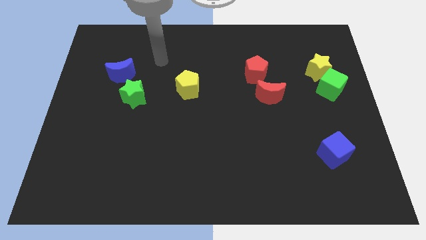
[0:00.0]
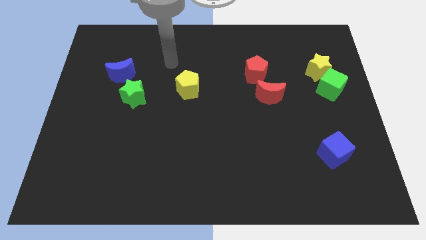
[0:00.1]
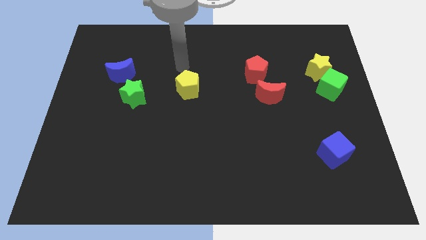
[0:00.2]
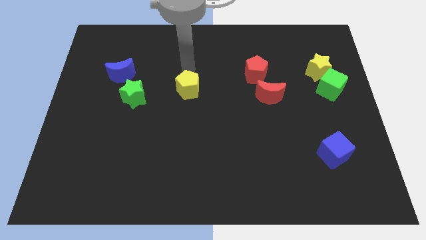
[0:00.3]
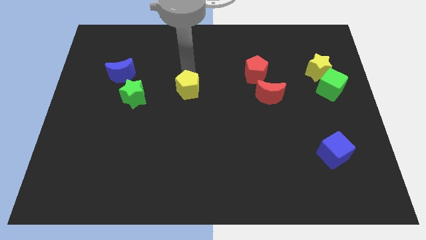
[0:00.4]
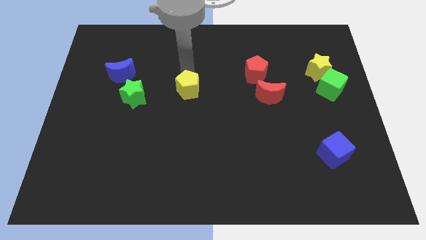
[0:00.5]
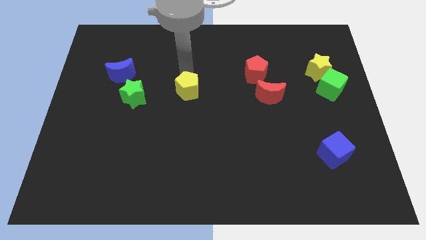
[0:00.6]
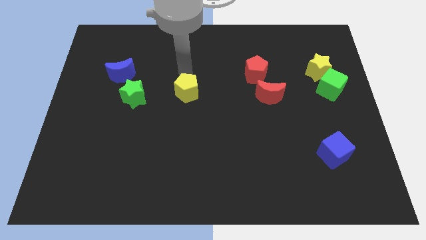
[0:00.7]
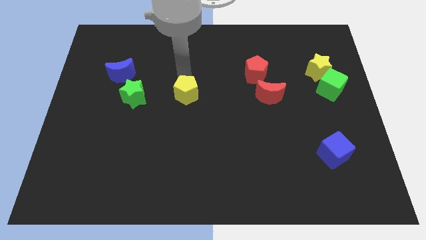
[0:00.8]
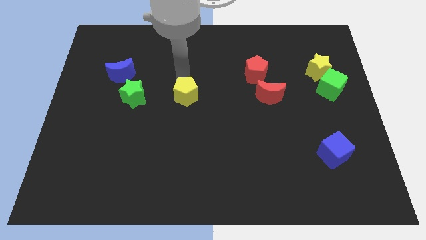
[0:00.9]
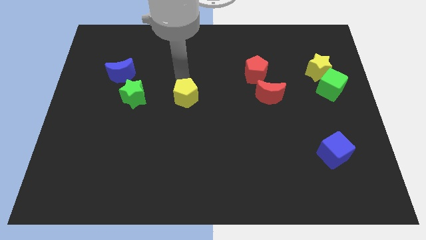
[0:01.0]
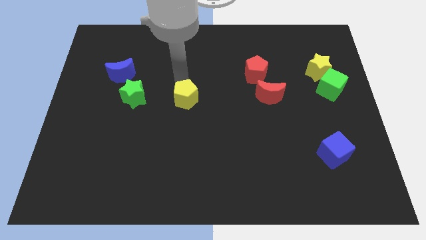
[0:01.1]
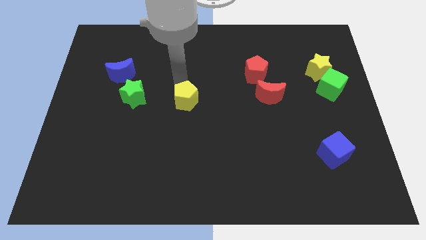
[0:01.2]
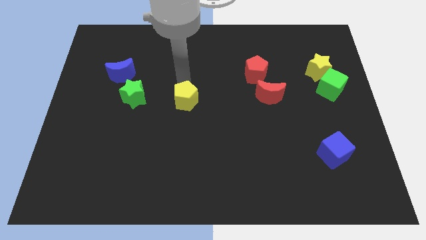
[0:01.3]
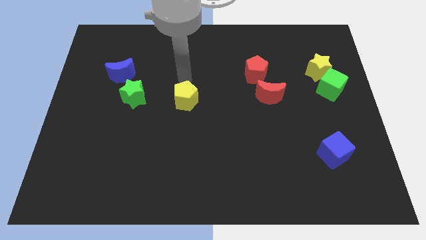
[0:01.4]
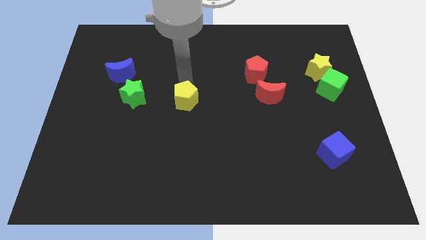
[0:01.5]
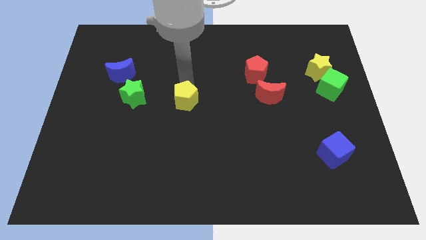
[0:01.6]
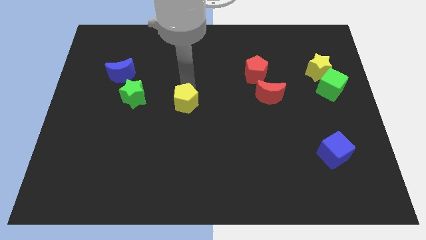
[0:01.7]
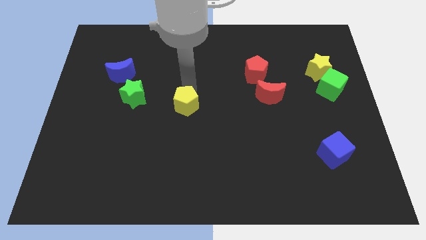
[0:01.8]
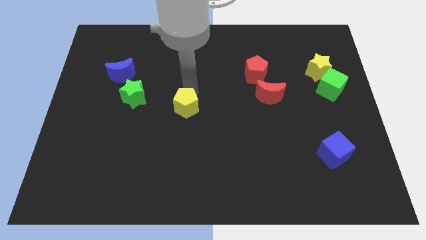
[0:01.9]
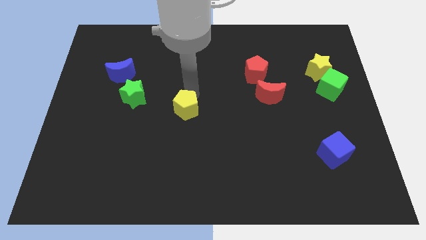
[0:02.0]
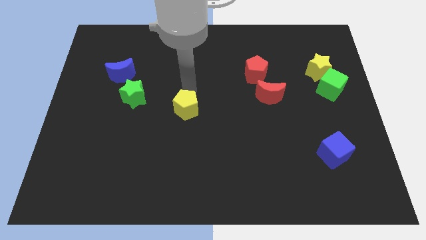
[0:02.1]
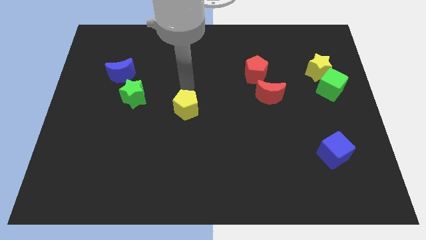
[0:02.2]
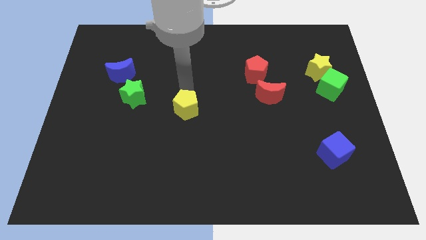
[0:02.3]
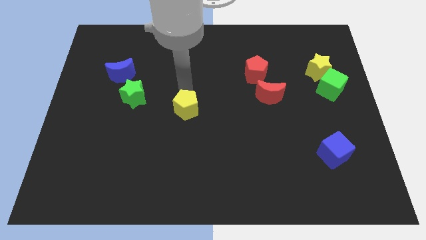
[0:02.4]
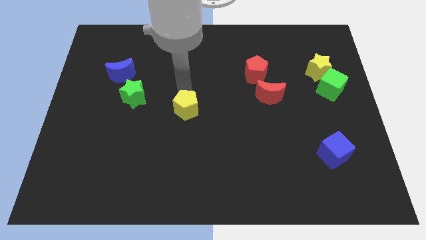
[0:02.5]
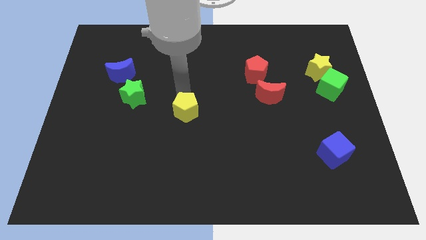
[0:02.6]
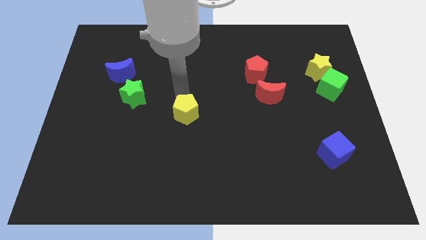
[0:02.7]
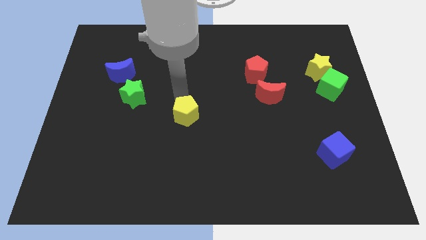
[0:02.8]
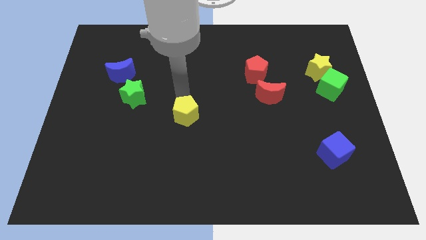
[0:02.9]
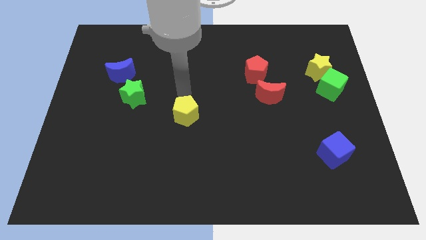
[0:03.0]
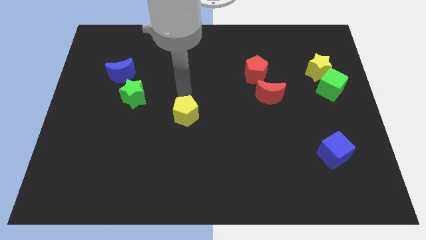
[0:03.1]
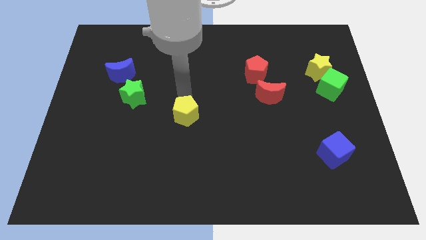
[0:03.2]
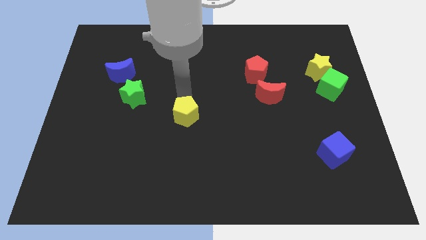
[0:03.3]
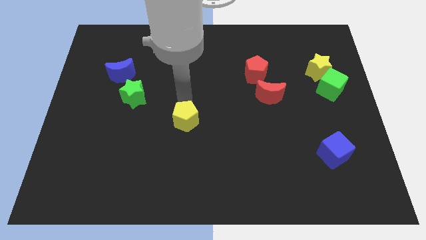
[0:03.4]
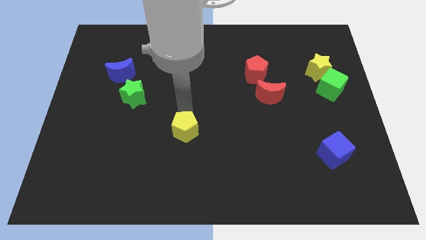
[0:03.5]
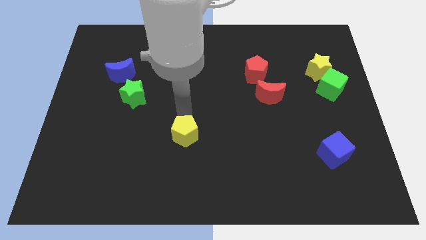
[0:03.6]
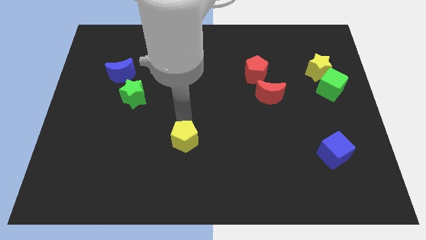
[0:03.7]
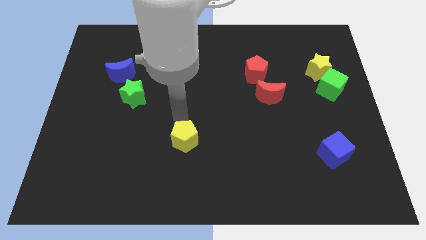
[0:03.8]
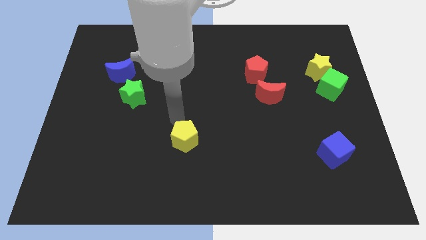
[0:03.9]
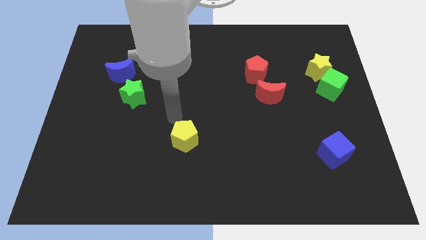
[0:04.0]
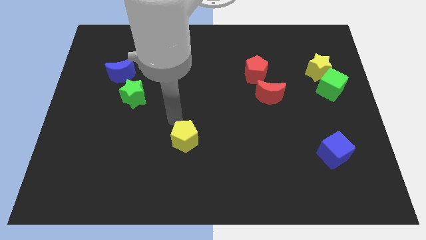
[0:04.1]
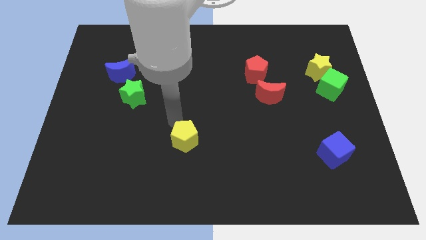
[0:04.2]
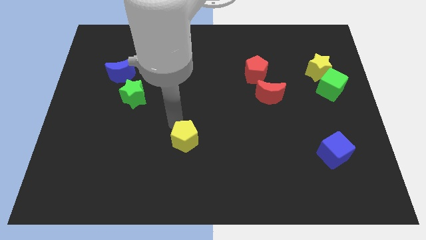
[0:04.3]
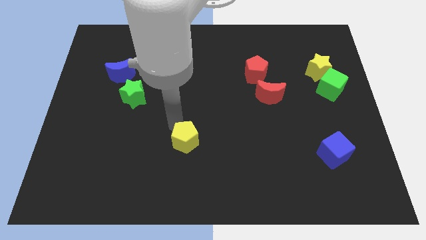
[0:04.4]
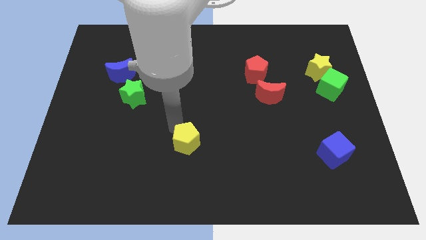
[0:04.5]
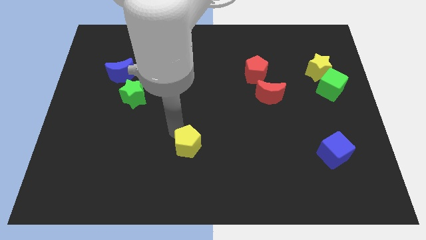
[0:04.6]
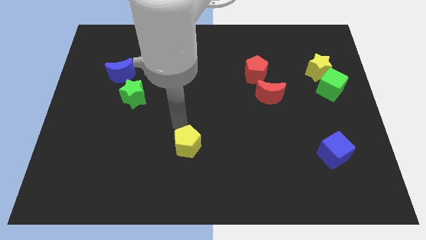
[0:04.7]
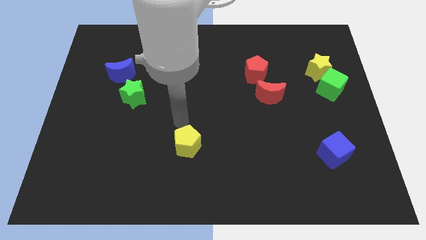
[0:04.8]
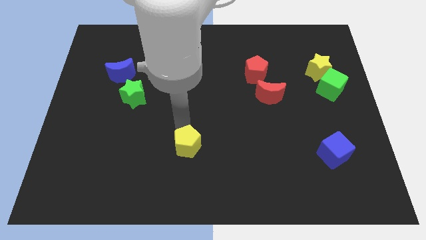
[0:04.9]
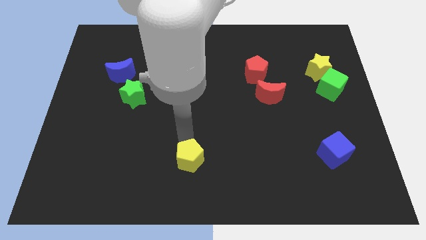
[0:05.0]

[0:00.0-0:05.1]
push the yellow pentagon to the bottom

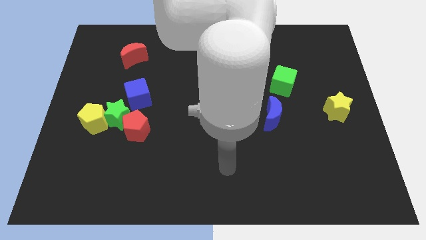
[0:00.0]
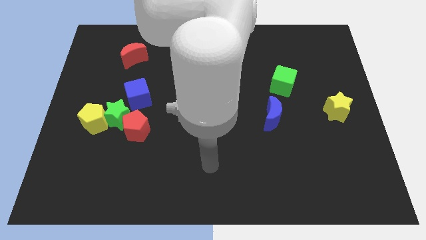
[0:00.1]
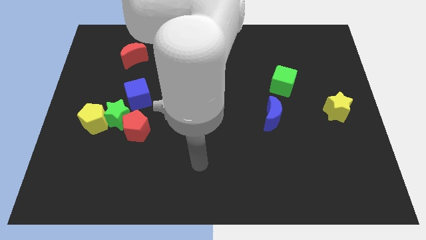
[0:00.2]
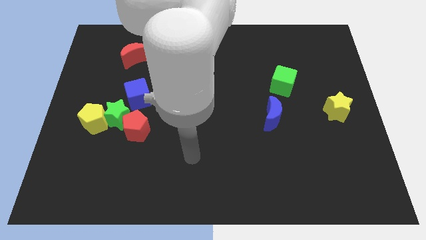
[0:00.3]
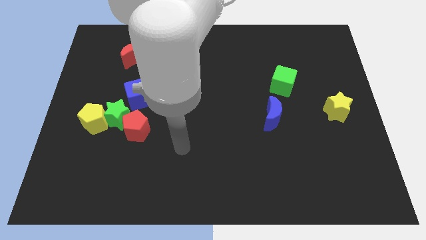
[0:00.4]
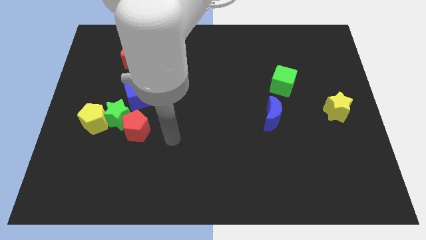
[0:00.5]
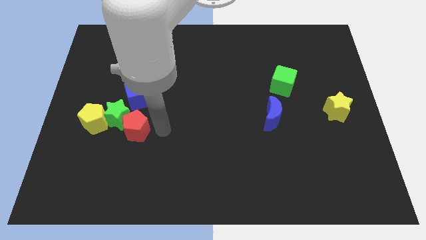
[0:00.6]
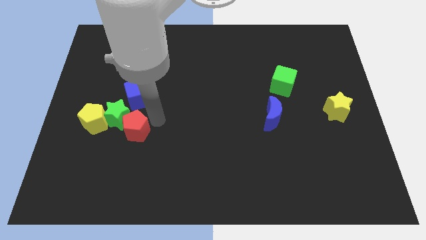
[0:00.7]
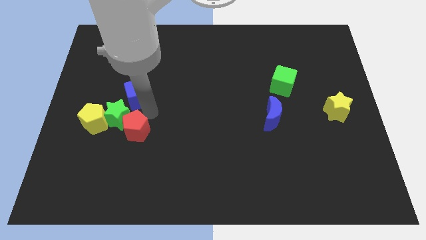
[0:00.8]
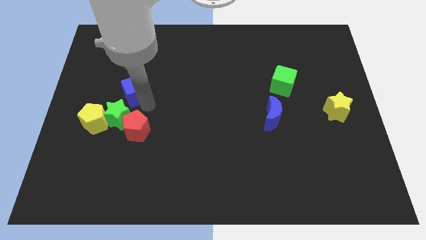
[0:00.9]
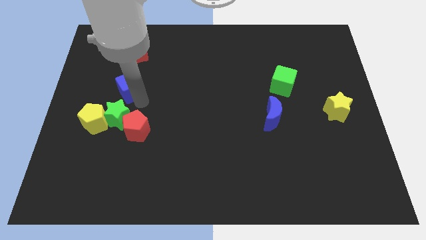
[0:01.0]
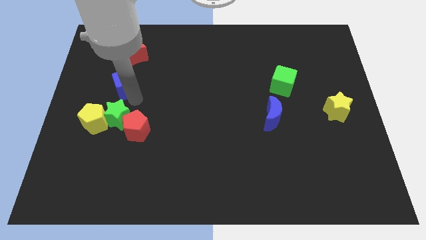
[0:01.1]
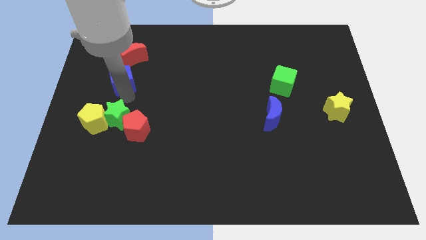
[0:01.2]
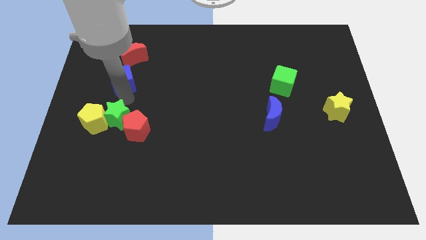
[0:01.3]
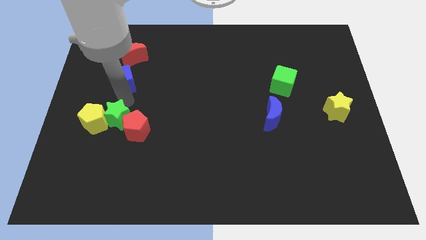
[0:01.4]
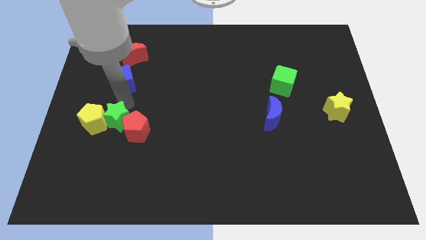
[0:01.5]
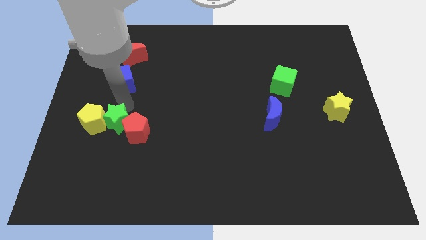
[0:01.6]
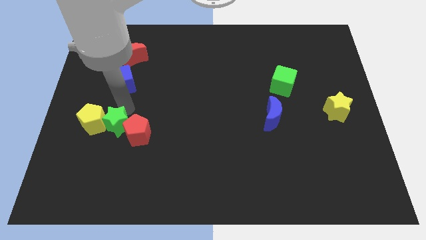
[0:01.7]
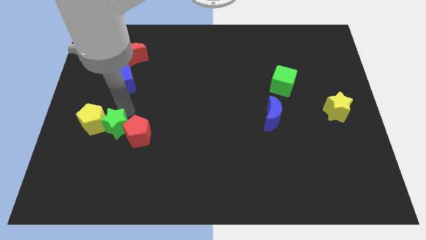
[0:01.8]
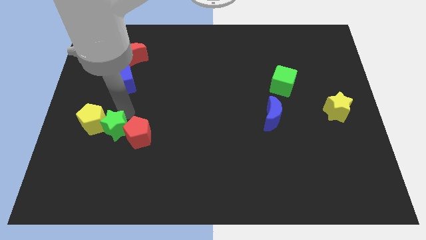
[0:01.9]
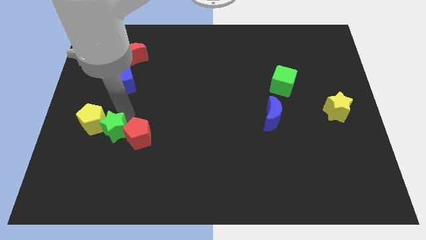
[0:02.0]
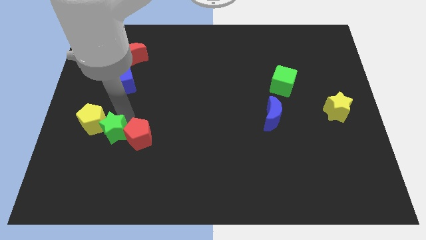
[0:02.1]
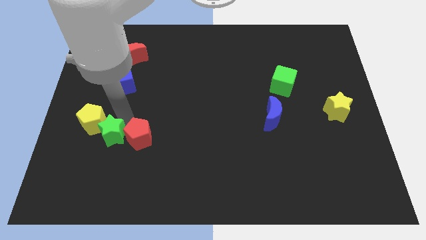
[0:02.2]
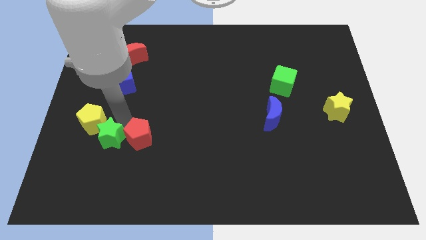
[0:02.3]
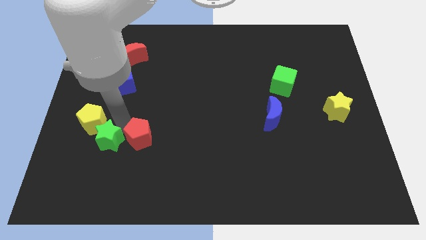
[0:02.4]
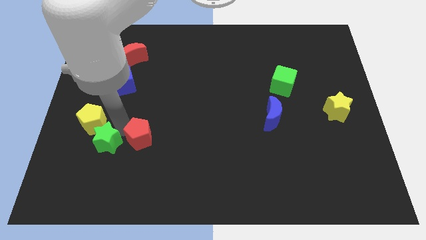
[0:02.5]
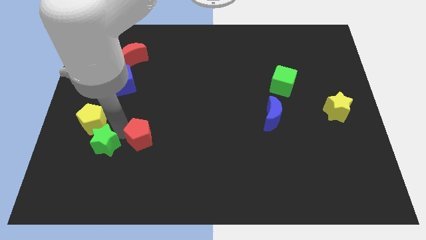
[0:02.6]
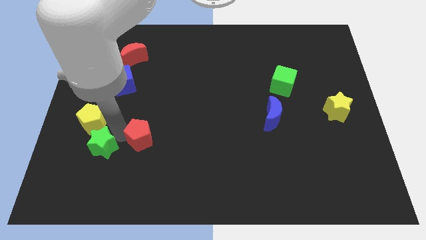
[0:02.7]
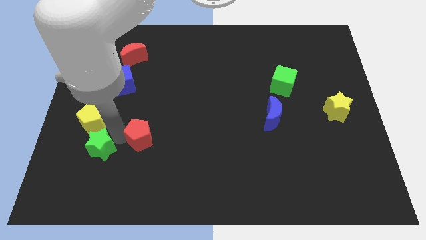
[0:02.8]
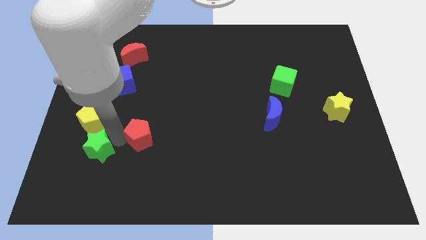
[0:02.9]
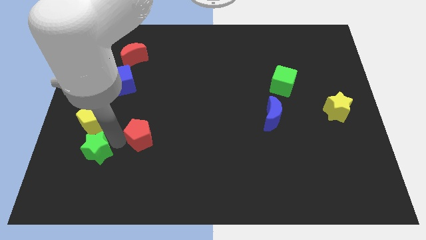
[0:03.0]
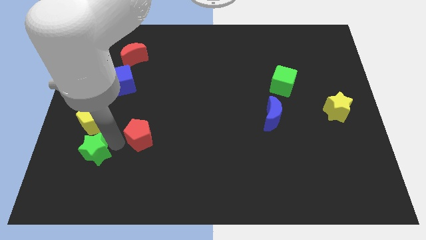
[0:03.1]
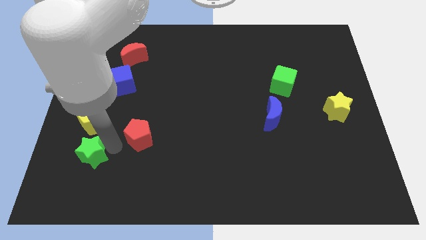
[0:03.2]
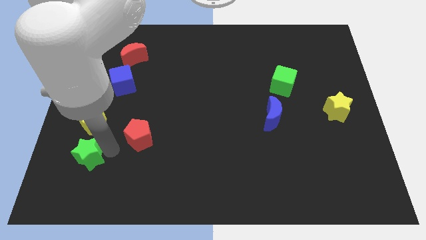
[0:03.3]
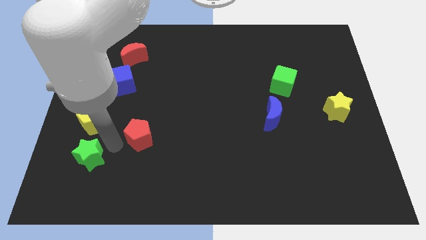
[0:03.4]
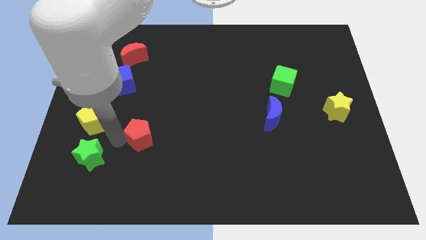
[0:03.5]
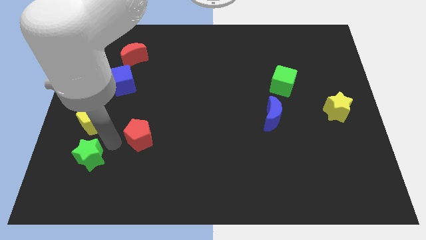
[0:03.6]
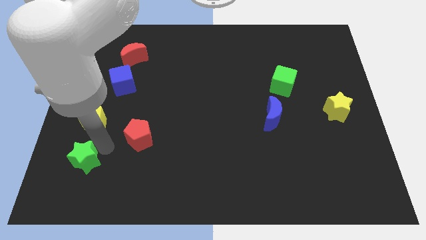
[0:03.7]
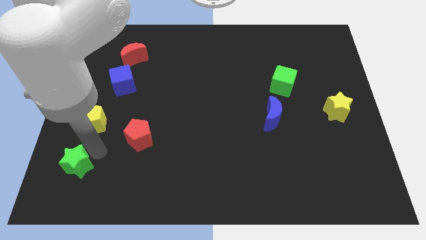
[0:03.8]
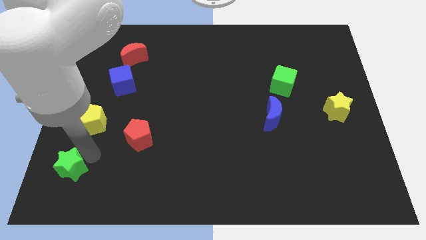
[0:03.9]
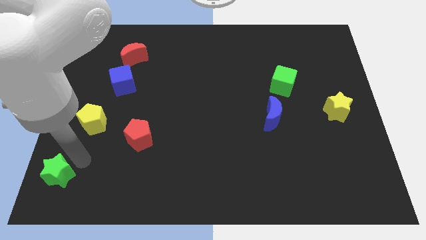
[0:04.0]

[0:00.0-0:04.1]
move the green star to the bottom left of the board
